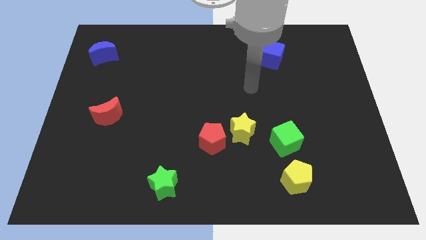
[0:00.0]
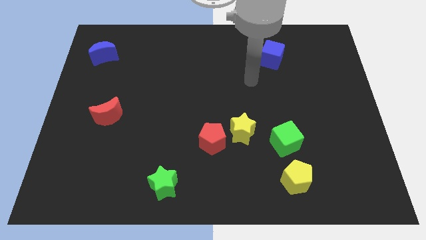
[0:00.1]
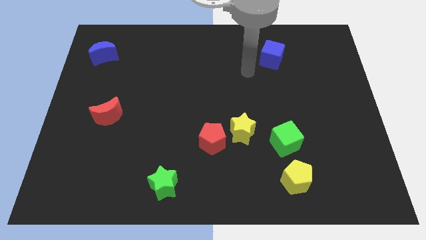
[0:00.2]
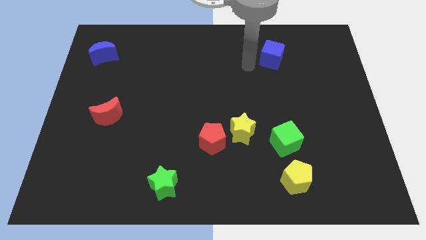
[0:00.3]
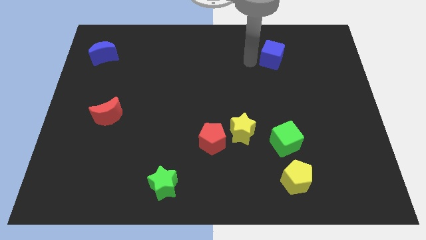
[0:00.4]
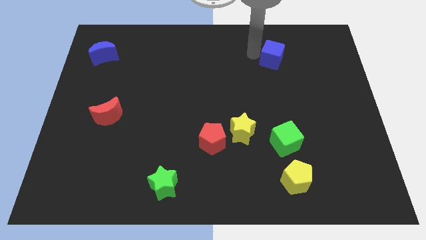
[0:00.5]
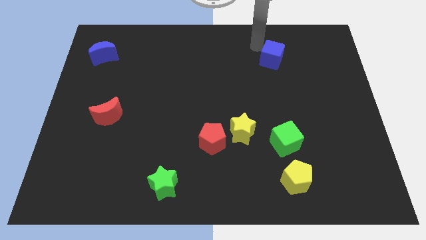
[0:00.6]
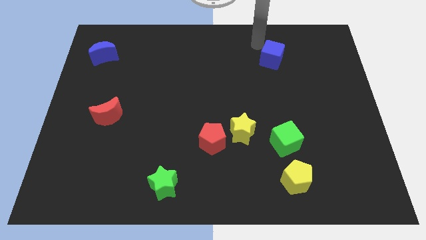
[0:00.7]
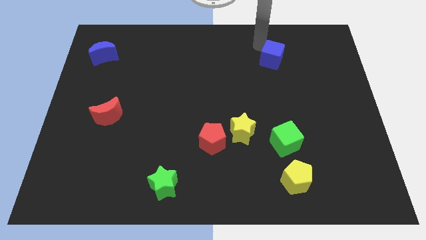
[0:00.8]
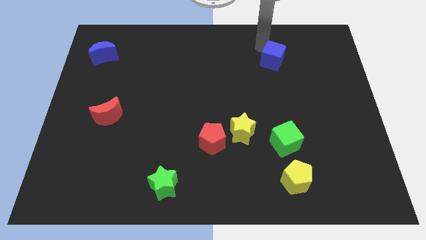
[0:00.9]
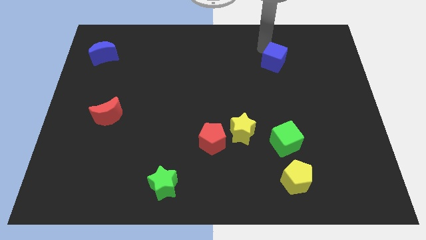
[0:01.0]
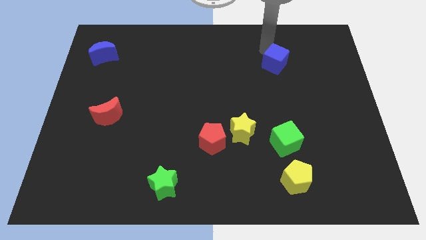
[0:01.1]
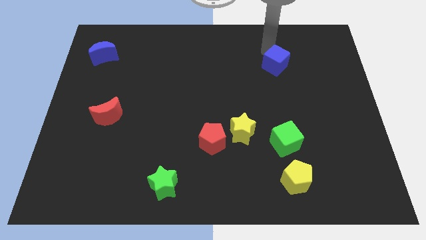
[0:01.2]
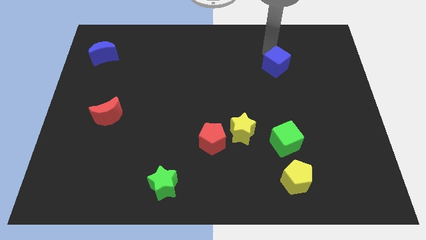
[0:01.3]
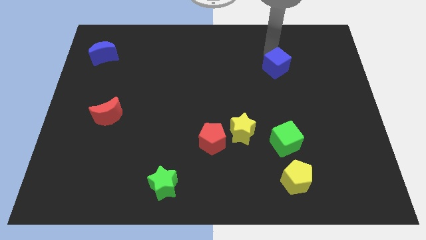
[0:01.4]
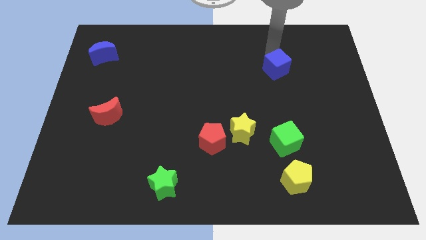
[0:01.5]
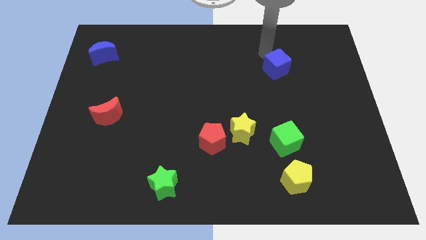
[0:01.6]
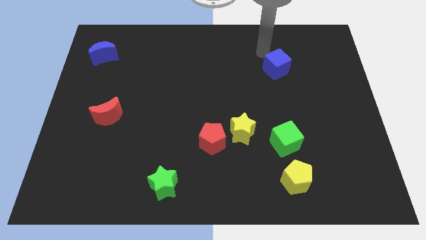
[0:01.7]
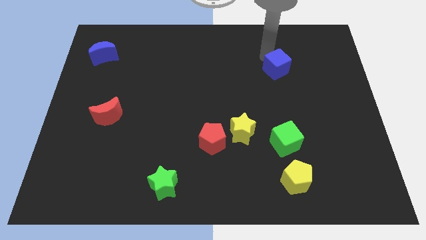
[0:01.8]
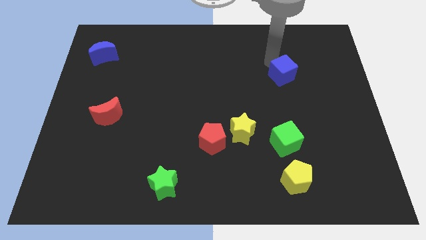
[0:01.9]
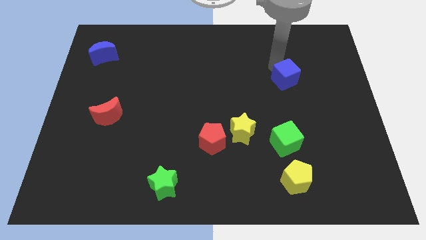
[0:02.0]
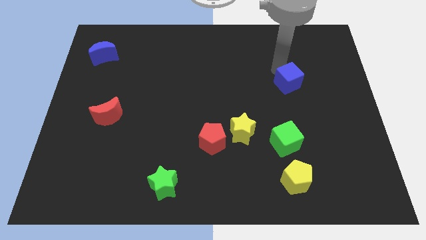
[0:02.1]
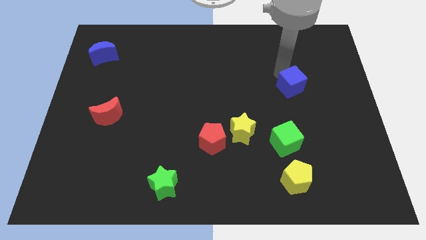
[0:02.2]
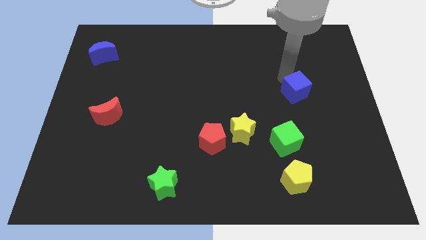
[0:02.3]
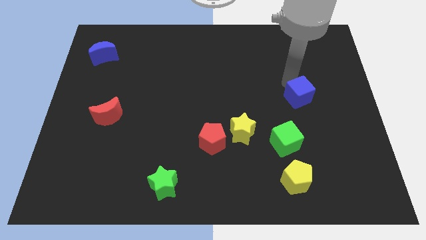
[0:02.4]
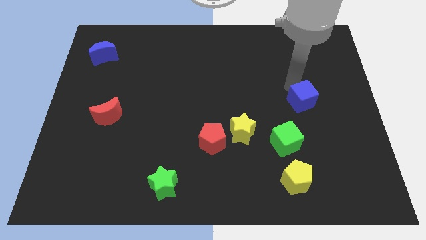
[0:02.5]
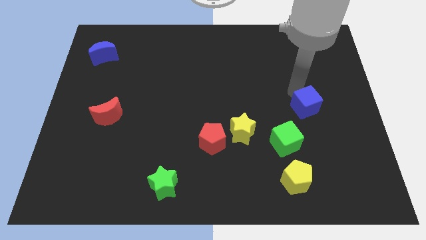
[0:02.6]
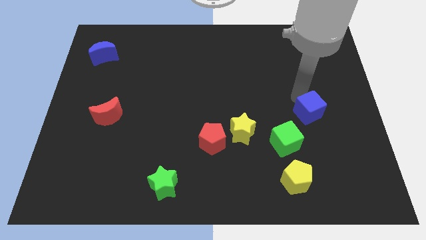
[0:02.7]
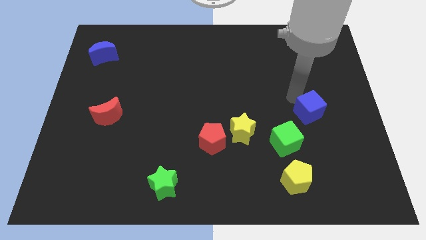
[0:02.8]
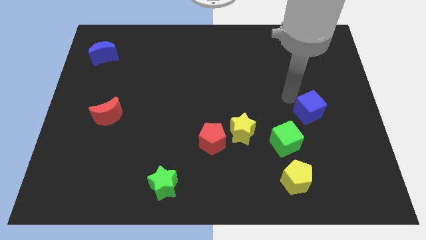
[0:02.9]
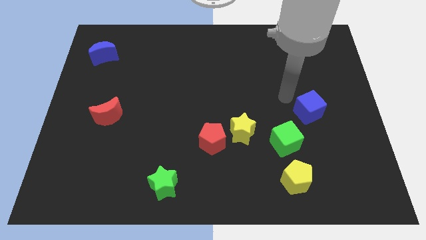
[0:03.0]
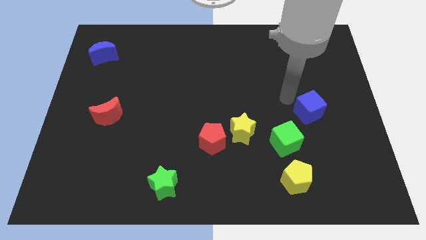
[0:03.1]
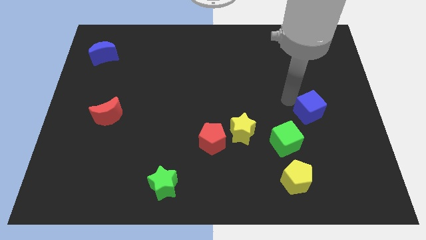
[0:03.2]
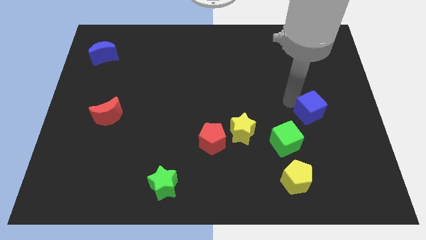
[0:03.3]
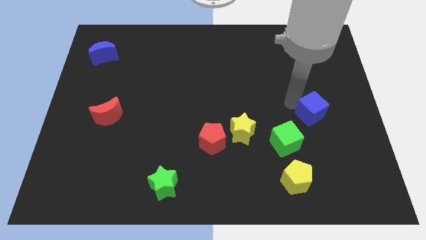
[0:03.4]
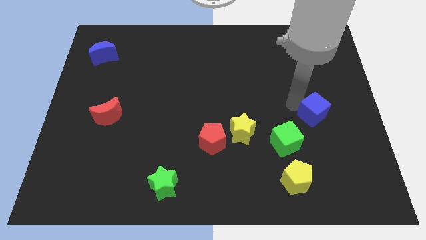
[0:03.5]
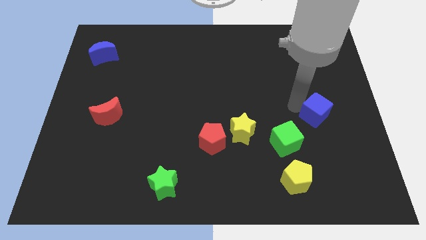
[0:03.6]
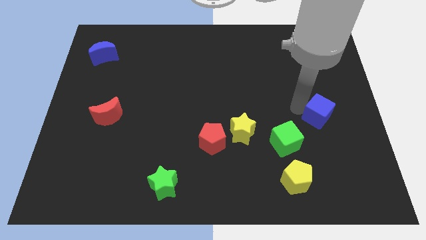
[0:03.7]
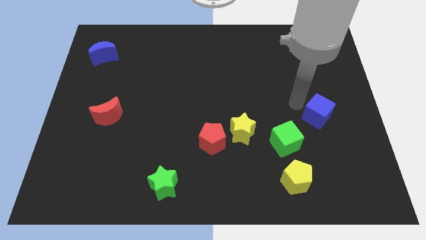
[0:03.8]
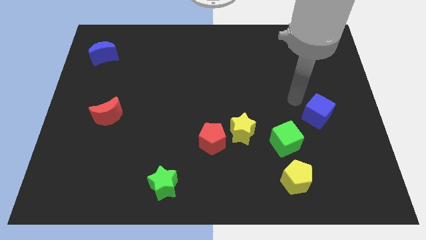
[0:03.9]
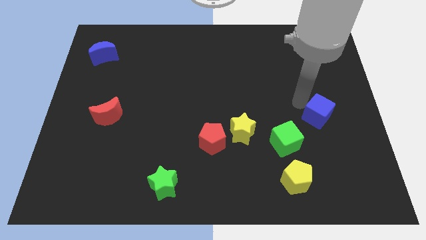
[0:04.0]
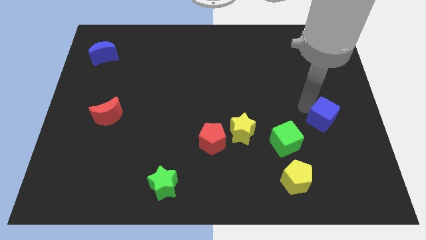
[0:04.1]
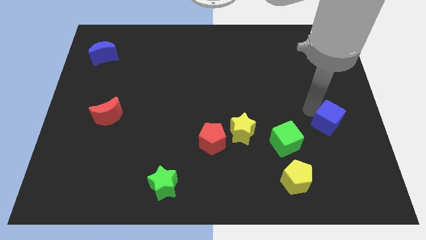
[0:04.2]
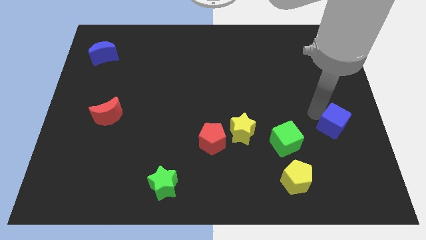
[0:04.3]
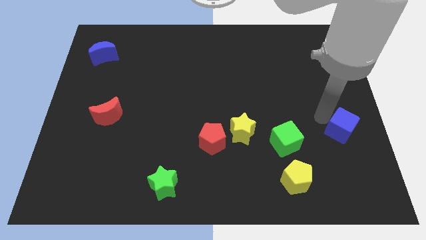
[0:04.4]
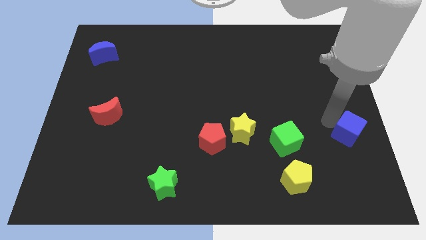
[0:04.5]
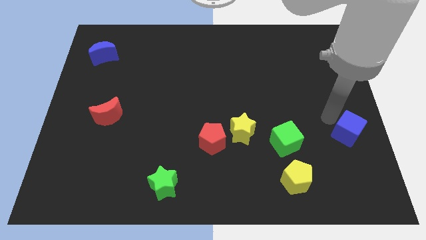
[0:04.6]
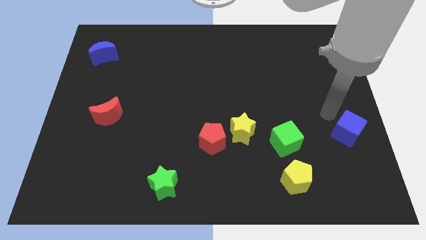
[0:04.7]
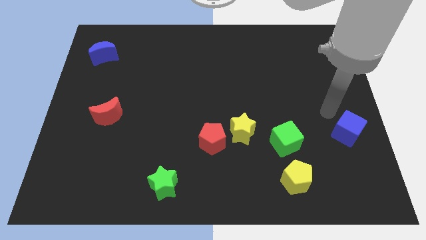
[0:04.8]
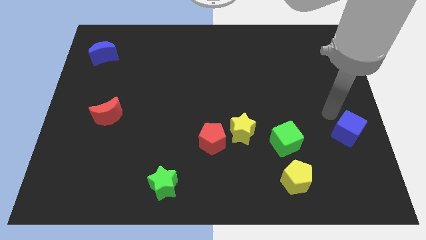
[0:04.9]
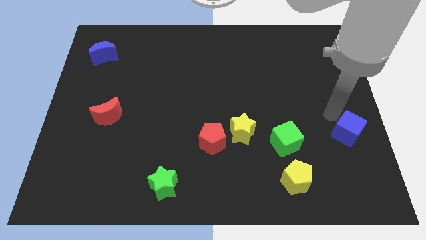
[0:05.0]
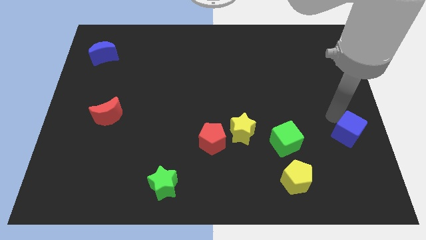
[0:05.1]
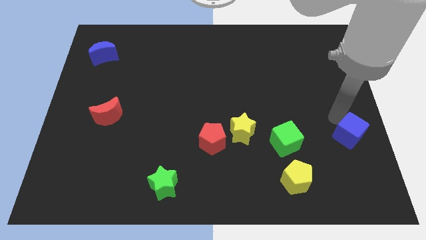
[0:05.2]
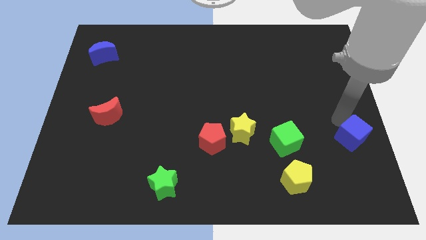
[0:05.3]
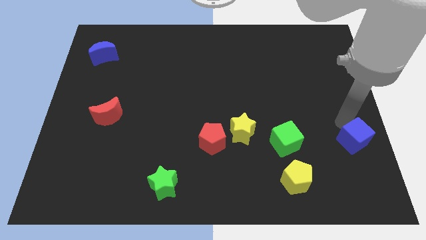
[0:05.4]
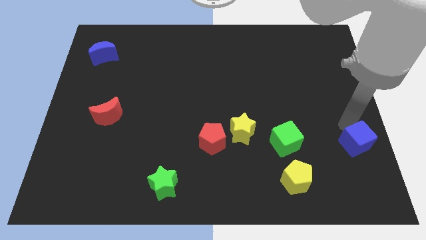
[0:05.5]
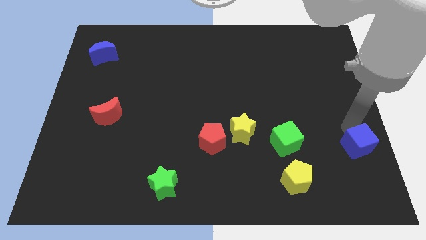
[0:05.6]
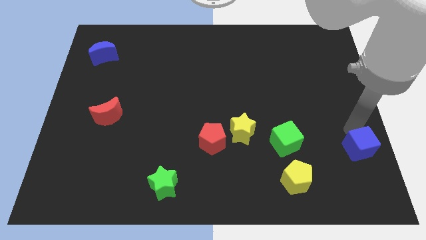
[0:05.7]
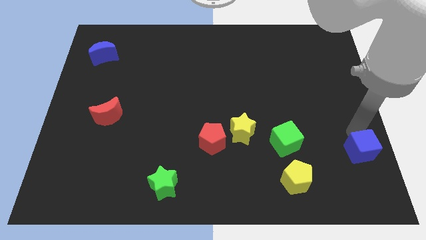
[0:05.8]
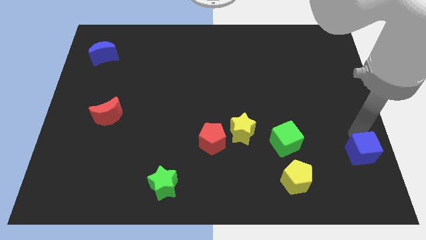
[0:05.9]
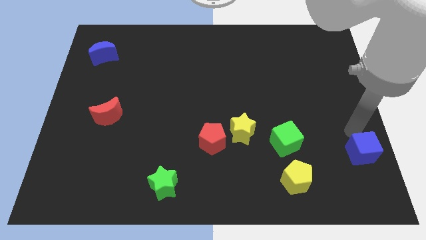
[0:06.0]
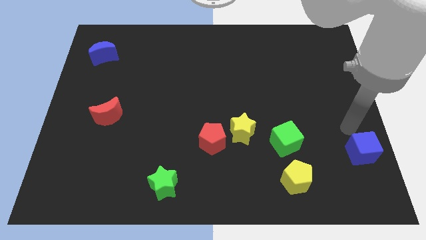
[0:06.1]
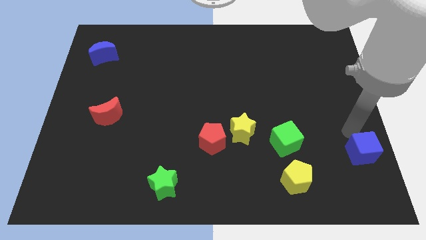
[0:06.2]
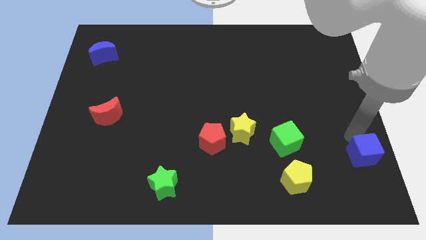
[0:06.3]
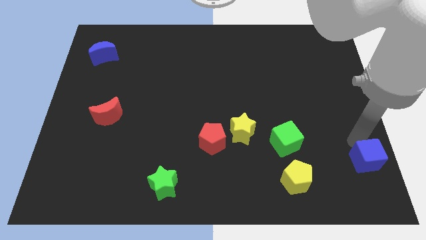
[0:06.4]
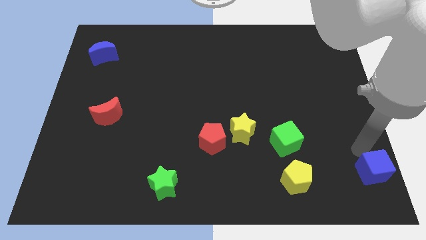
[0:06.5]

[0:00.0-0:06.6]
move the blue cube to the bottom right corner

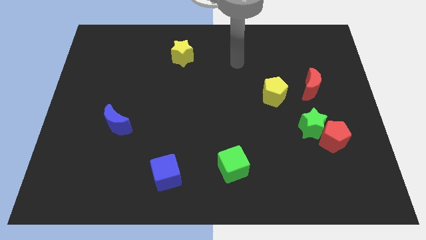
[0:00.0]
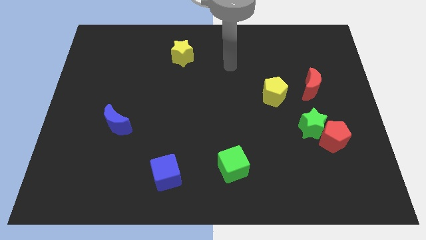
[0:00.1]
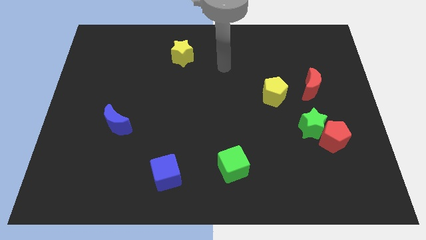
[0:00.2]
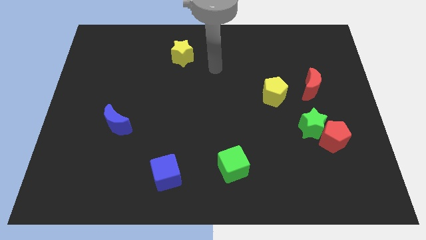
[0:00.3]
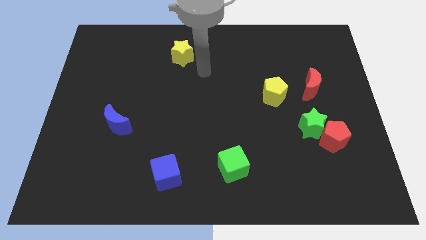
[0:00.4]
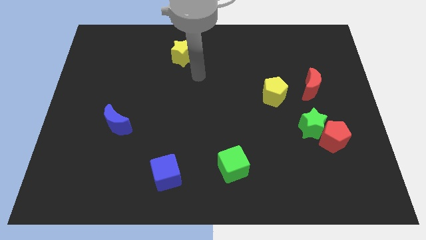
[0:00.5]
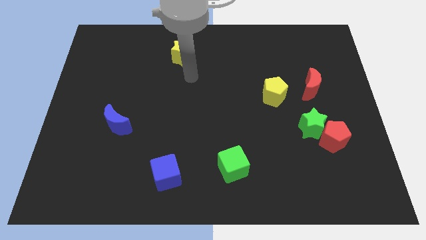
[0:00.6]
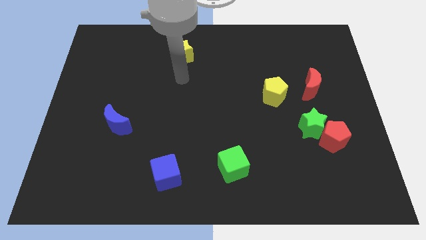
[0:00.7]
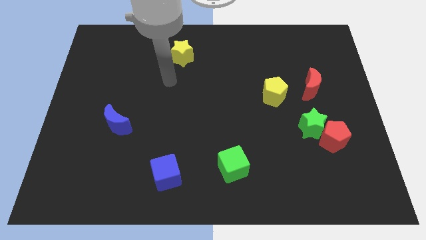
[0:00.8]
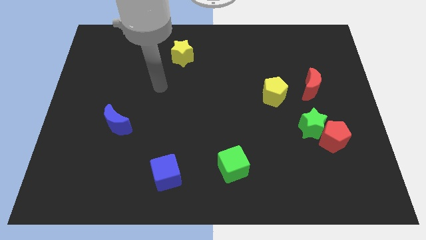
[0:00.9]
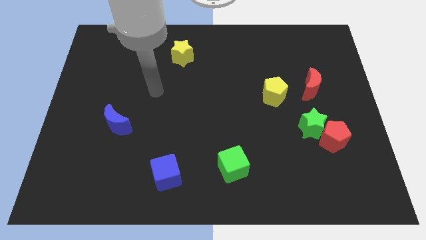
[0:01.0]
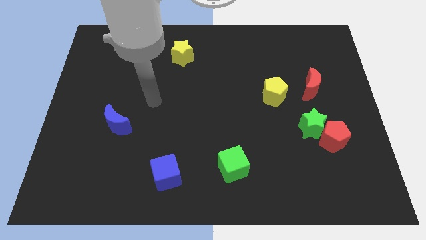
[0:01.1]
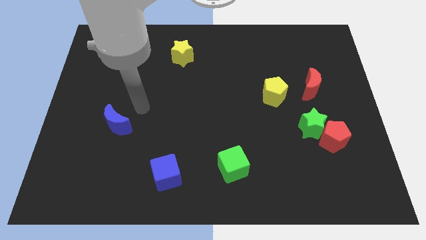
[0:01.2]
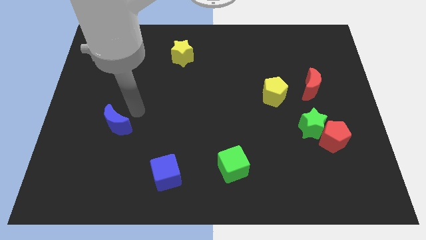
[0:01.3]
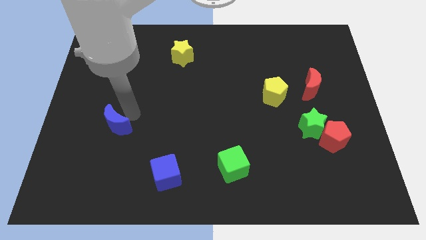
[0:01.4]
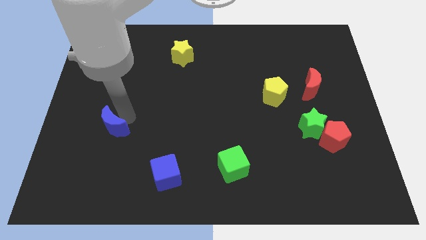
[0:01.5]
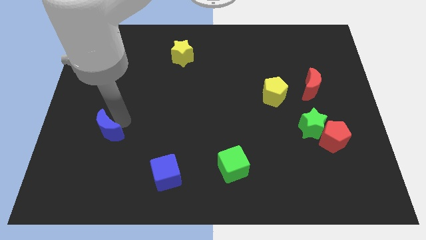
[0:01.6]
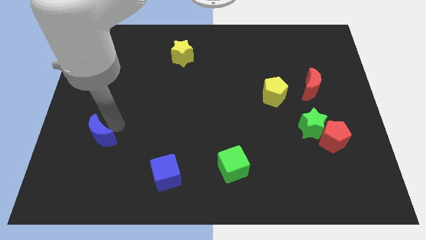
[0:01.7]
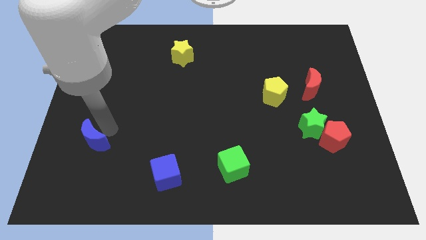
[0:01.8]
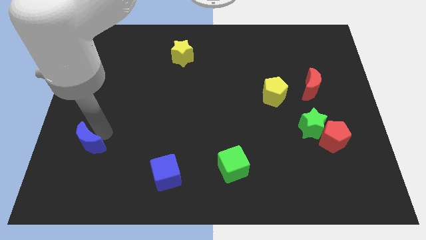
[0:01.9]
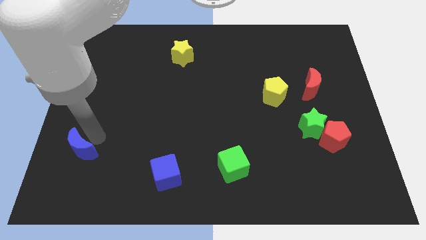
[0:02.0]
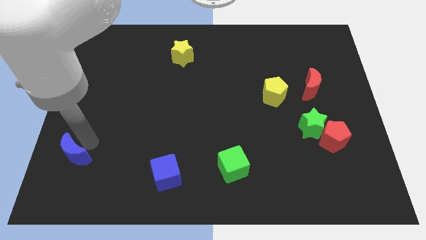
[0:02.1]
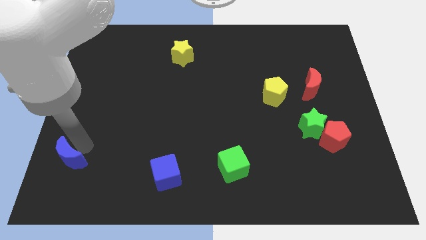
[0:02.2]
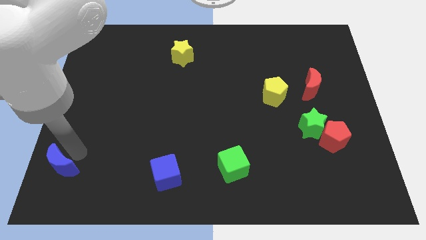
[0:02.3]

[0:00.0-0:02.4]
push the blue moon to the bottom left
